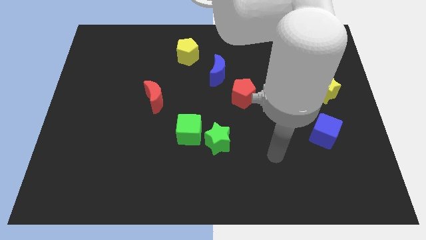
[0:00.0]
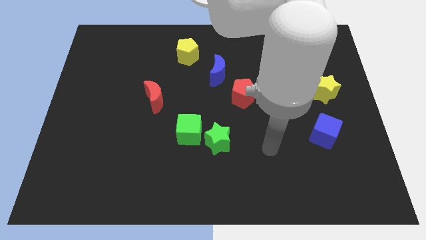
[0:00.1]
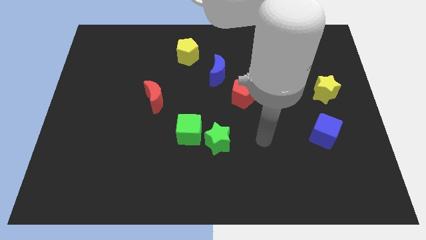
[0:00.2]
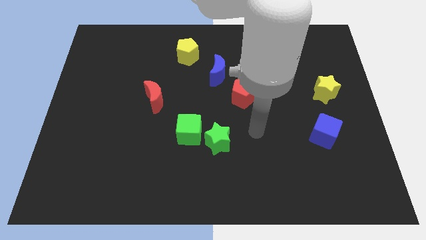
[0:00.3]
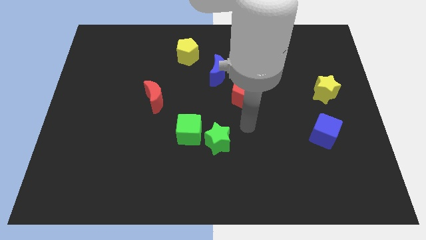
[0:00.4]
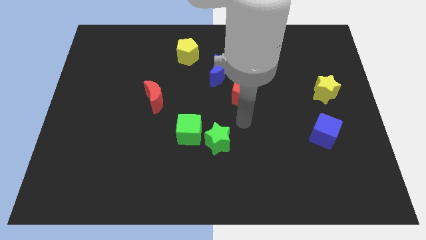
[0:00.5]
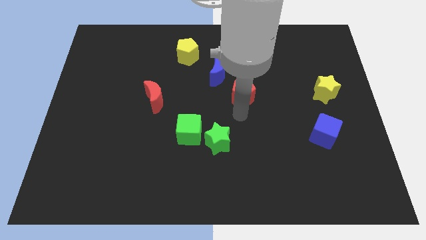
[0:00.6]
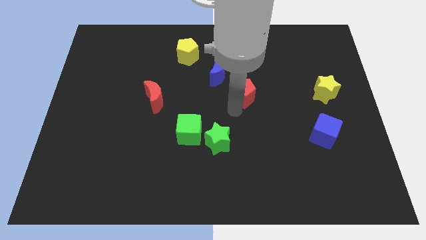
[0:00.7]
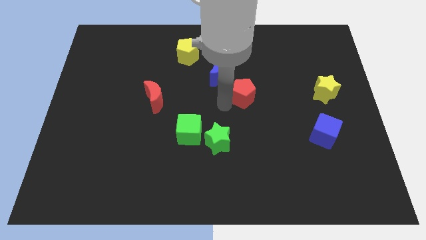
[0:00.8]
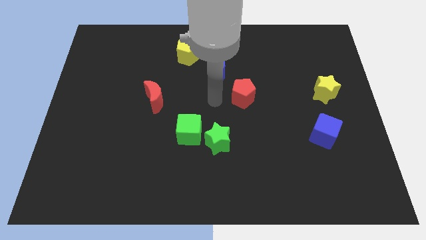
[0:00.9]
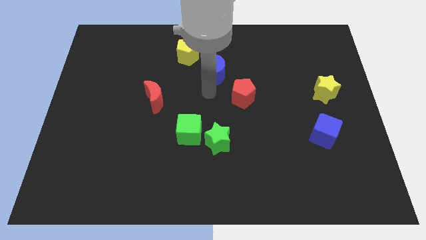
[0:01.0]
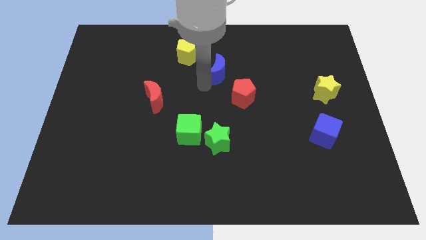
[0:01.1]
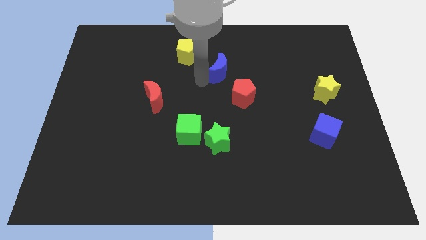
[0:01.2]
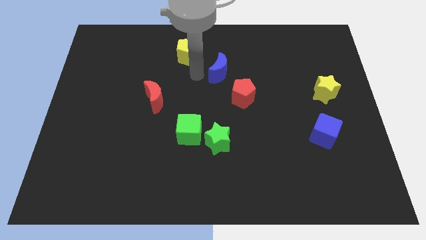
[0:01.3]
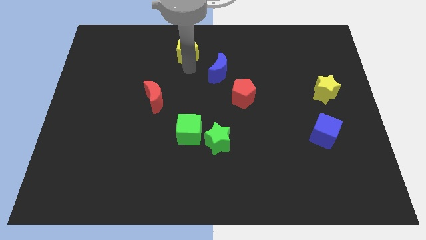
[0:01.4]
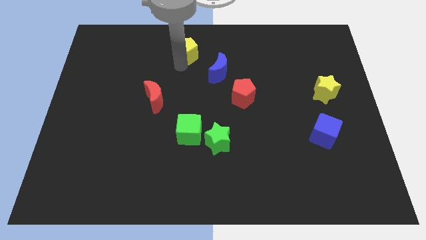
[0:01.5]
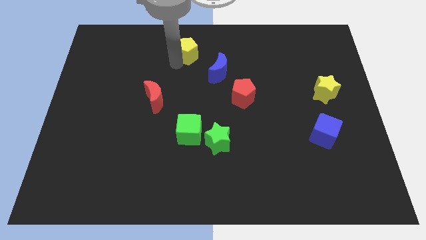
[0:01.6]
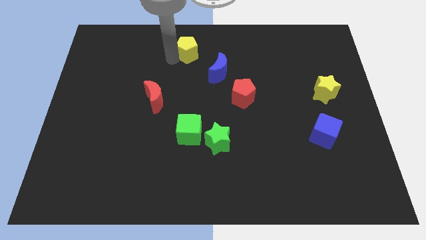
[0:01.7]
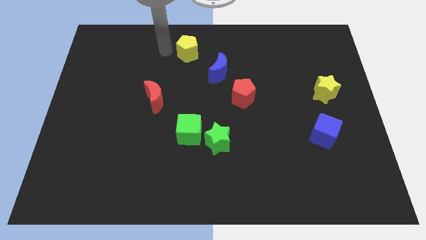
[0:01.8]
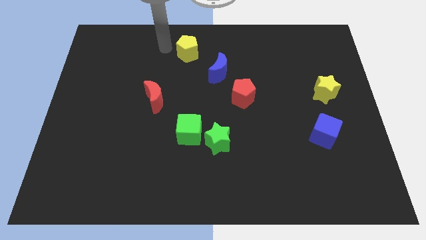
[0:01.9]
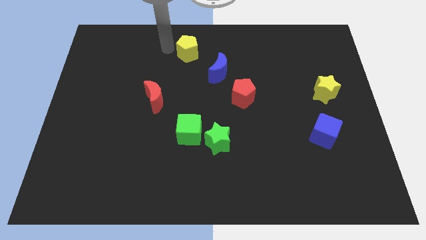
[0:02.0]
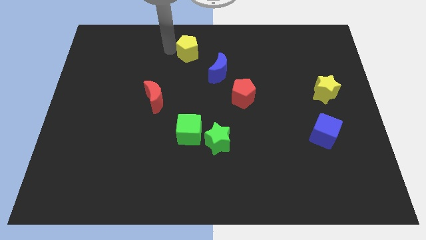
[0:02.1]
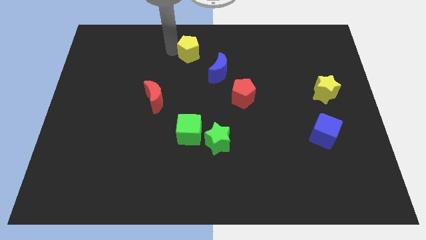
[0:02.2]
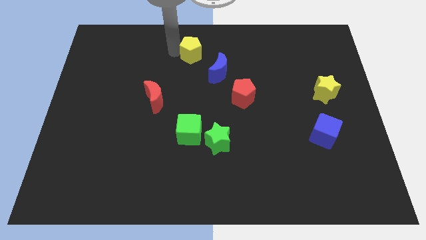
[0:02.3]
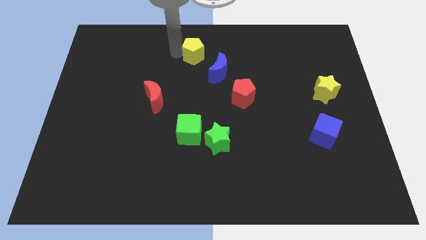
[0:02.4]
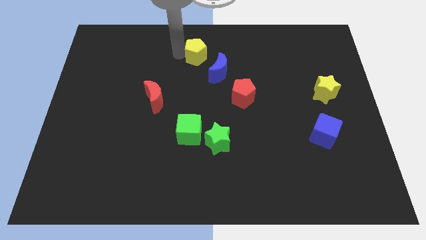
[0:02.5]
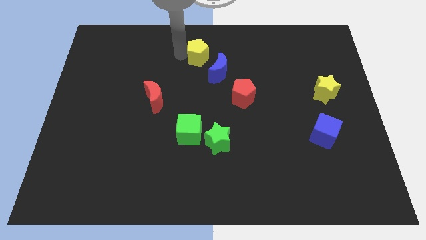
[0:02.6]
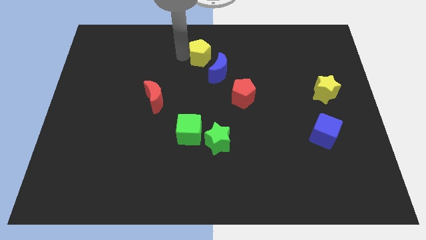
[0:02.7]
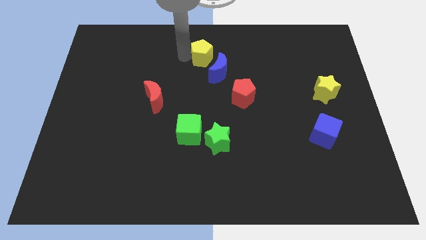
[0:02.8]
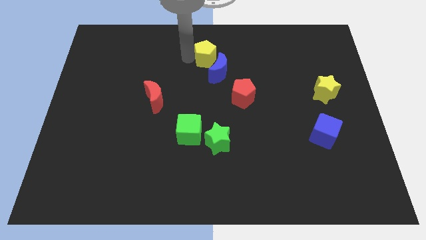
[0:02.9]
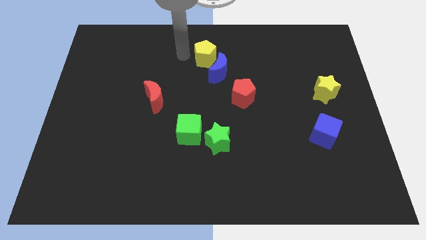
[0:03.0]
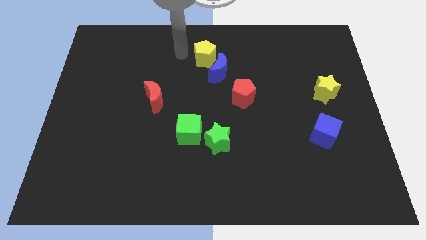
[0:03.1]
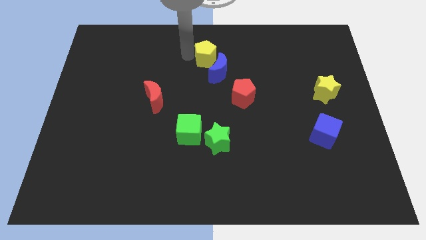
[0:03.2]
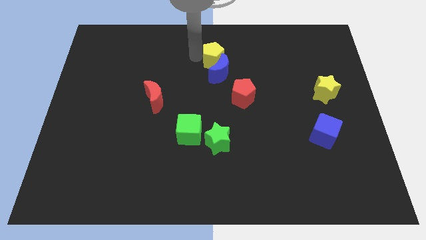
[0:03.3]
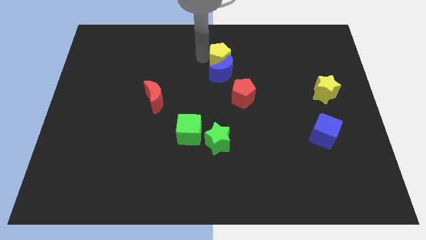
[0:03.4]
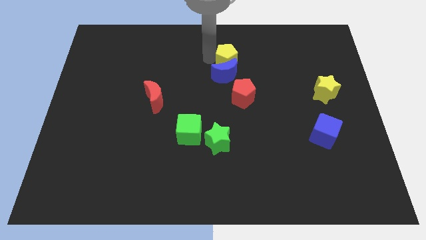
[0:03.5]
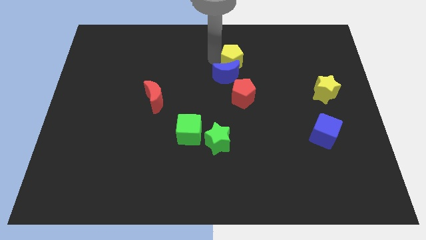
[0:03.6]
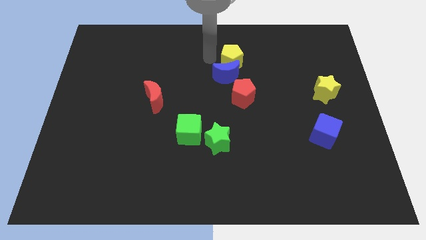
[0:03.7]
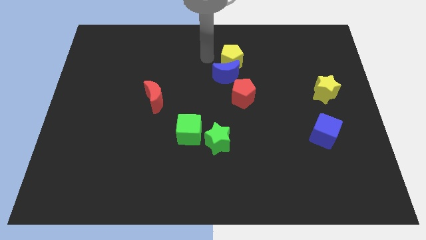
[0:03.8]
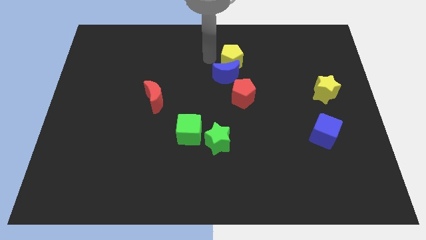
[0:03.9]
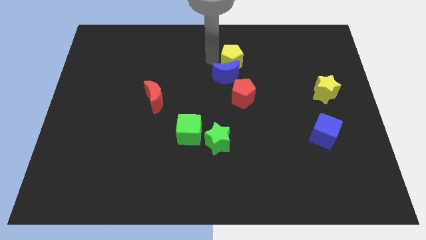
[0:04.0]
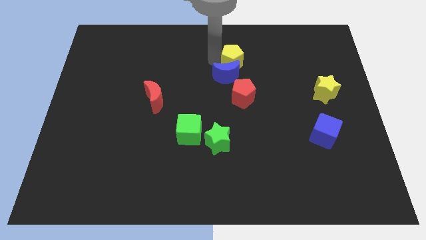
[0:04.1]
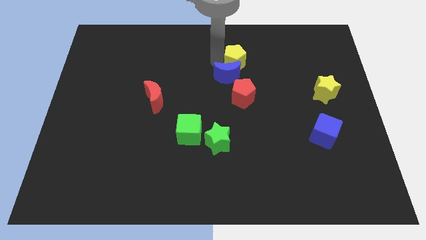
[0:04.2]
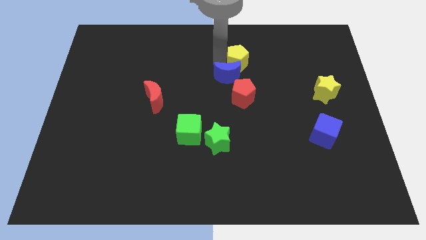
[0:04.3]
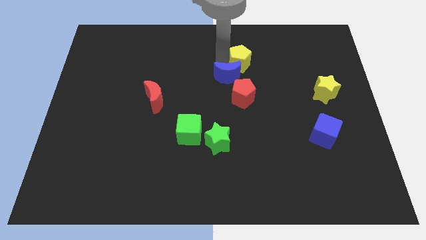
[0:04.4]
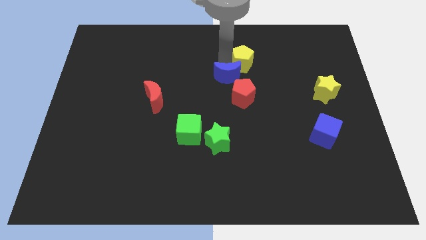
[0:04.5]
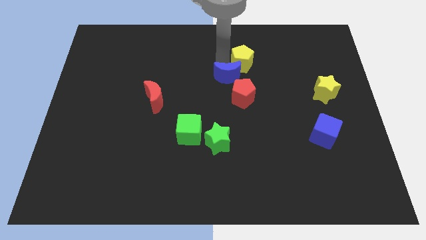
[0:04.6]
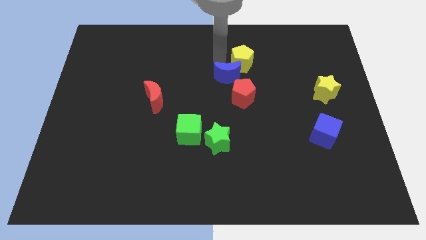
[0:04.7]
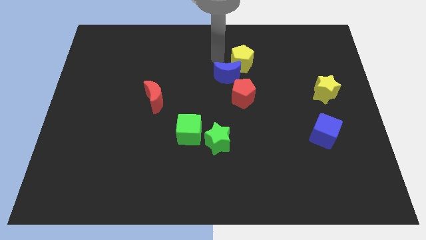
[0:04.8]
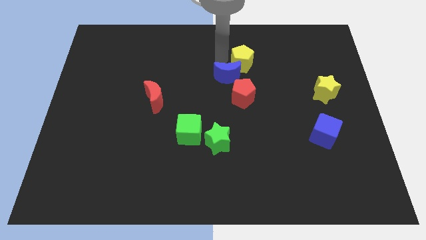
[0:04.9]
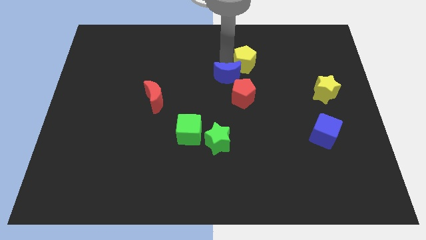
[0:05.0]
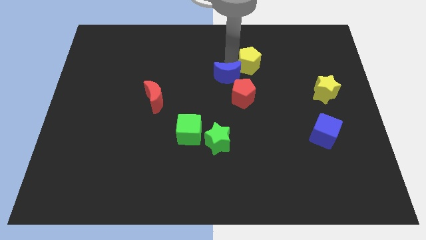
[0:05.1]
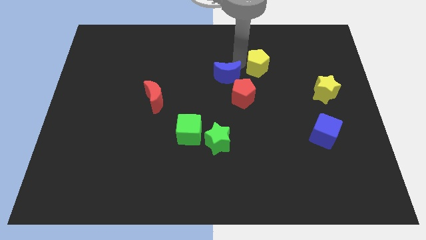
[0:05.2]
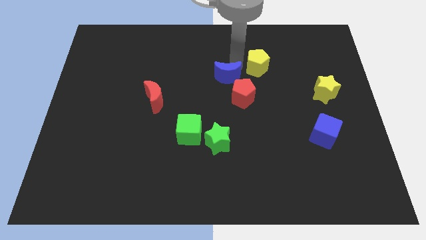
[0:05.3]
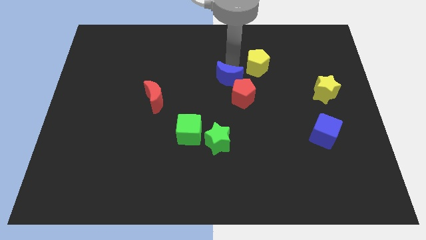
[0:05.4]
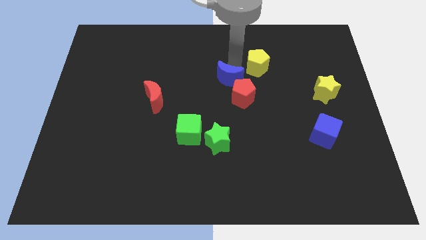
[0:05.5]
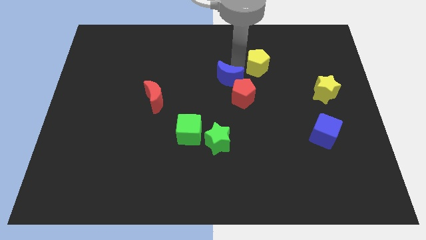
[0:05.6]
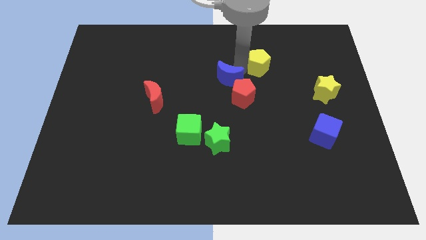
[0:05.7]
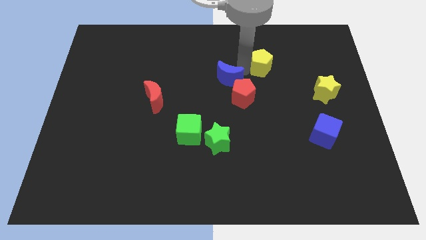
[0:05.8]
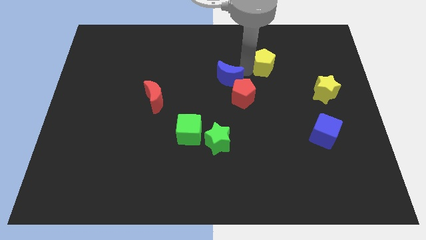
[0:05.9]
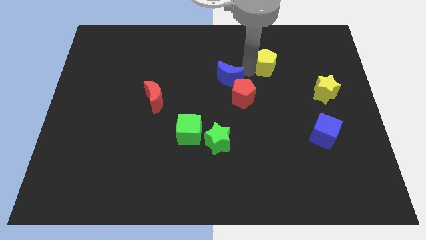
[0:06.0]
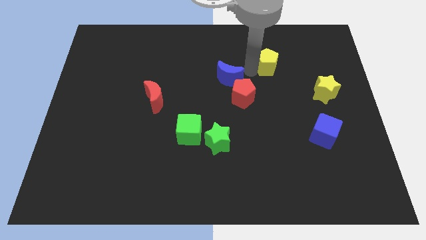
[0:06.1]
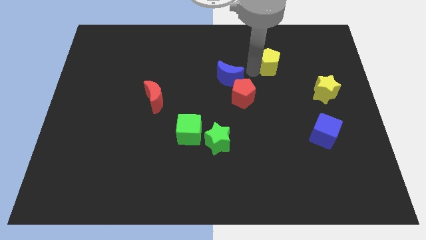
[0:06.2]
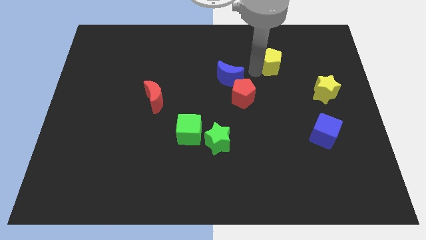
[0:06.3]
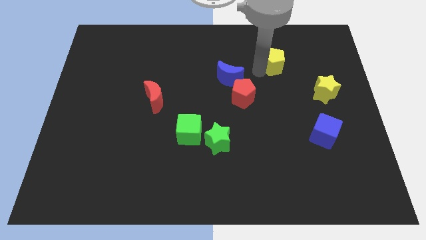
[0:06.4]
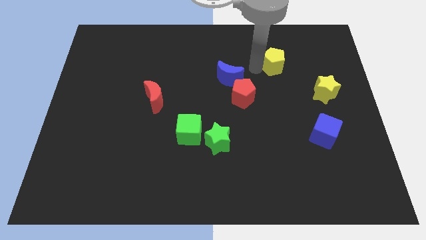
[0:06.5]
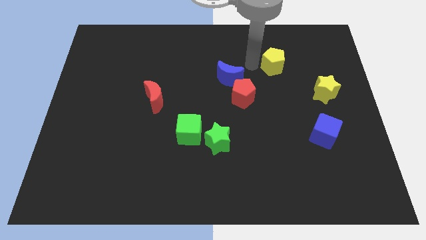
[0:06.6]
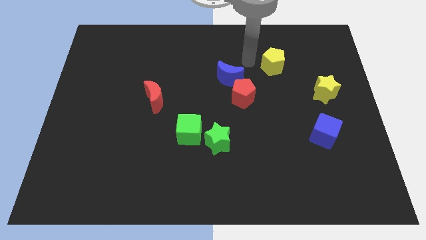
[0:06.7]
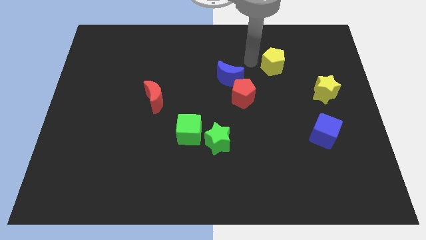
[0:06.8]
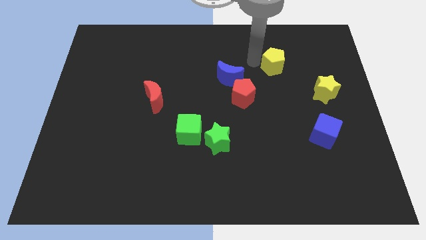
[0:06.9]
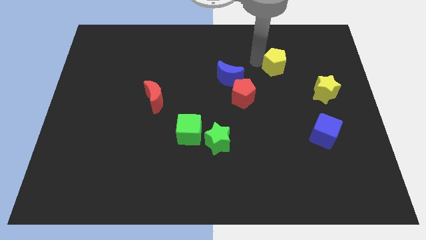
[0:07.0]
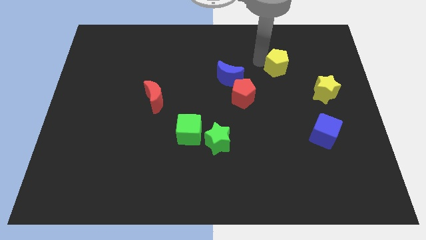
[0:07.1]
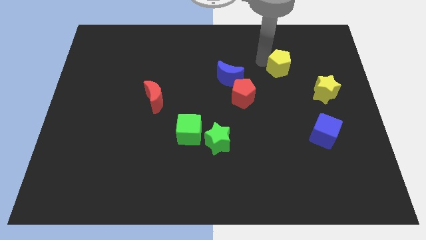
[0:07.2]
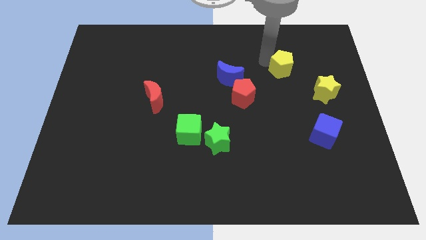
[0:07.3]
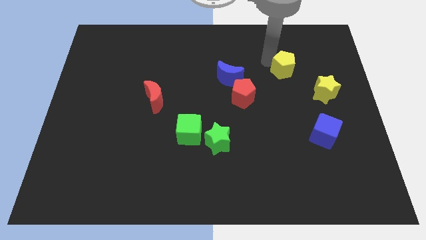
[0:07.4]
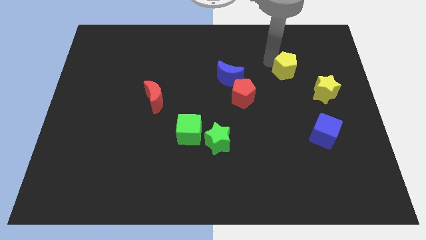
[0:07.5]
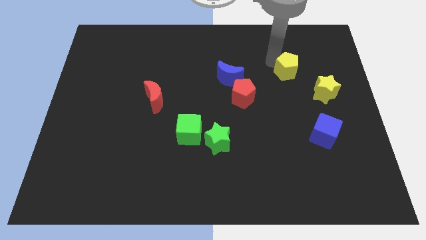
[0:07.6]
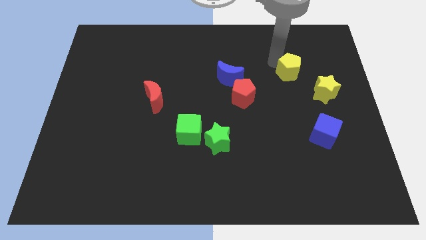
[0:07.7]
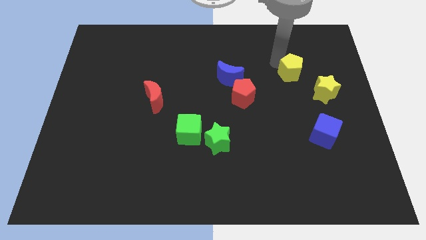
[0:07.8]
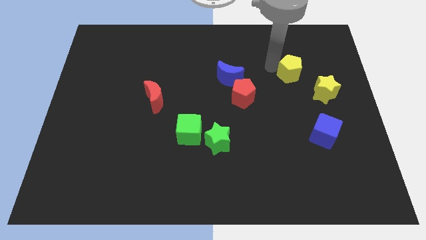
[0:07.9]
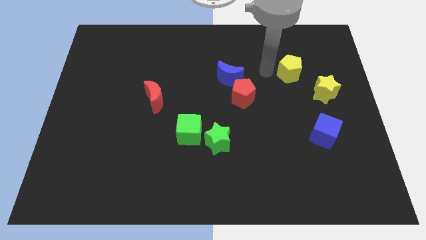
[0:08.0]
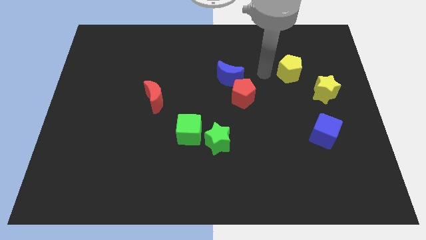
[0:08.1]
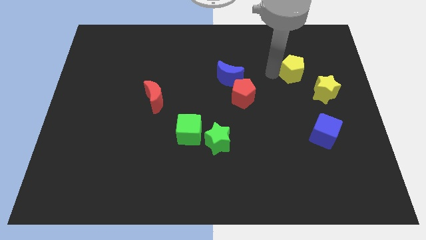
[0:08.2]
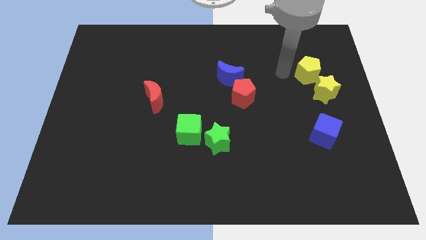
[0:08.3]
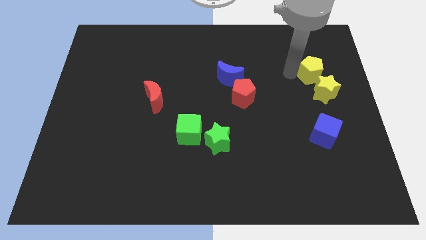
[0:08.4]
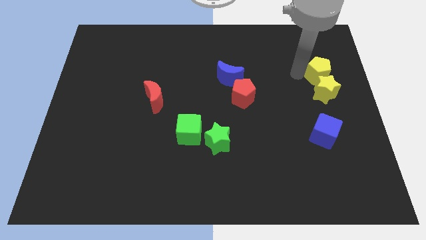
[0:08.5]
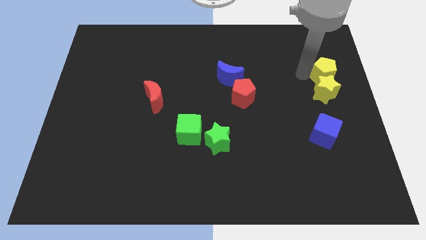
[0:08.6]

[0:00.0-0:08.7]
push the yellow pentagon to the right side
